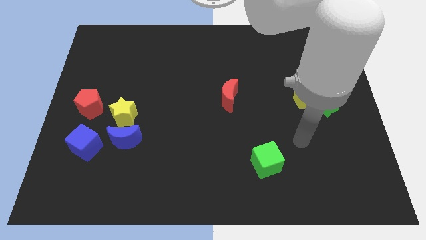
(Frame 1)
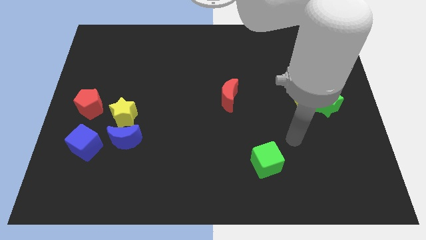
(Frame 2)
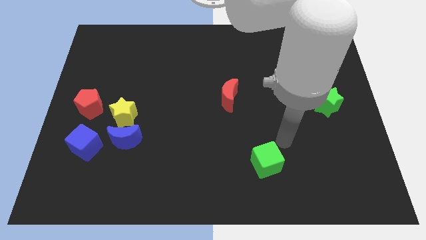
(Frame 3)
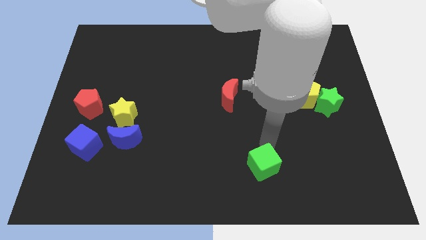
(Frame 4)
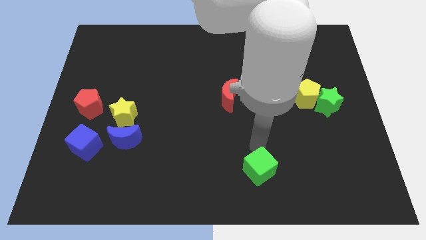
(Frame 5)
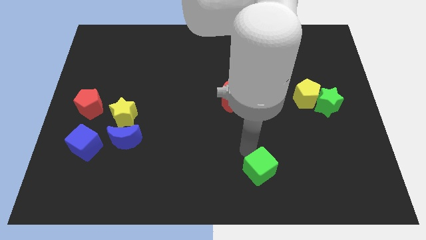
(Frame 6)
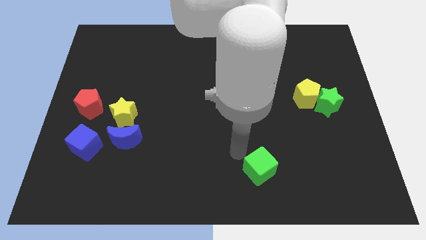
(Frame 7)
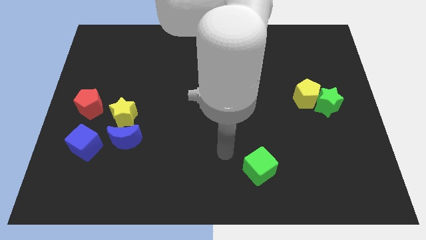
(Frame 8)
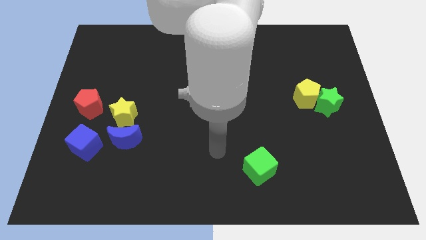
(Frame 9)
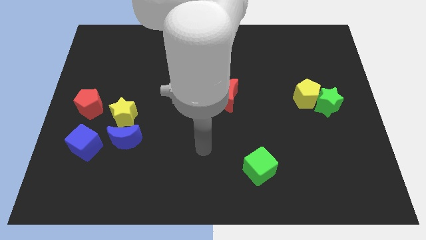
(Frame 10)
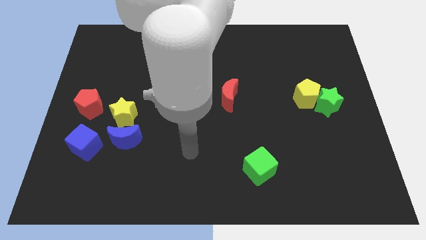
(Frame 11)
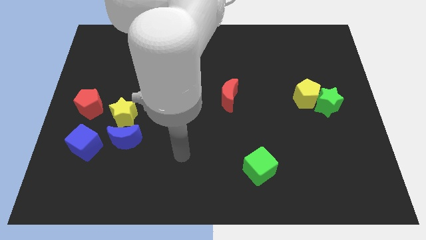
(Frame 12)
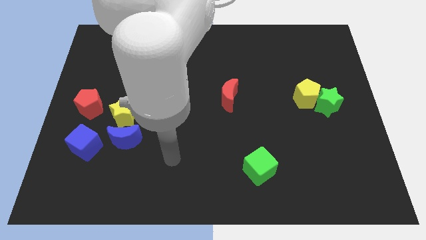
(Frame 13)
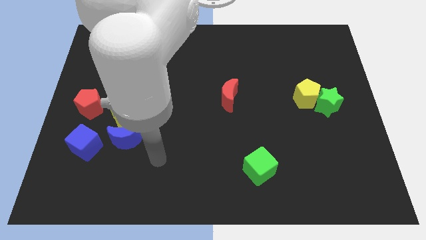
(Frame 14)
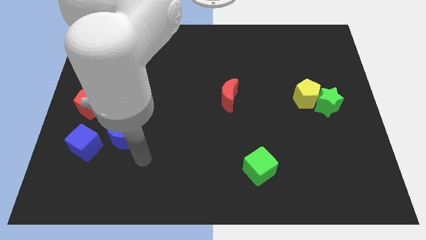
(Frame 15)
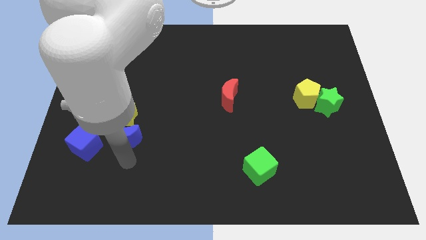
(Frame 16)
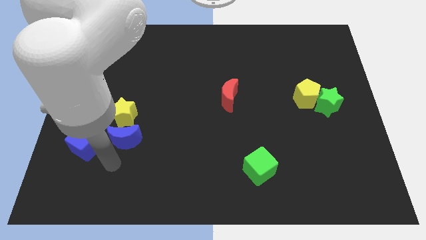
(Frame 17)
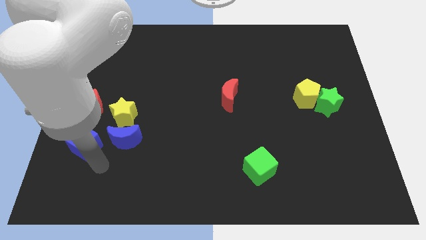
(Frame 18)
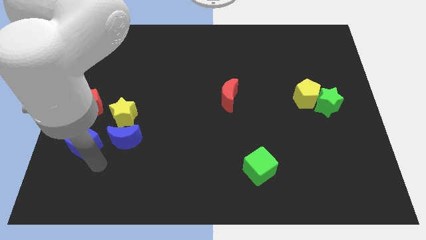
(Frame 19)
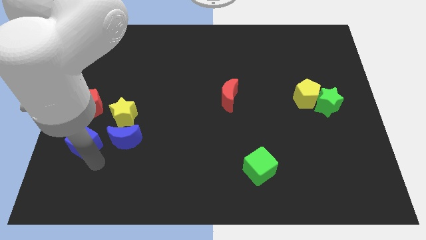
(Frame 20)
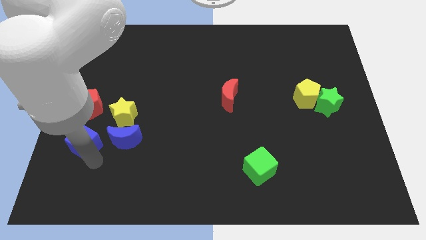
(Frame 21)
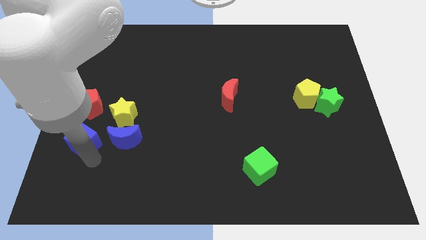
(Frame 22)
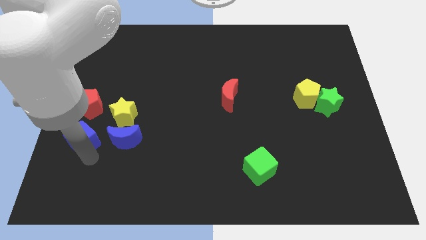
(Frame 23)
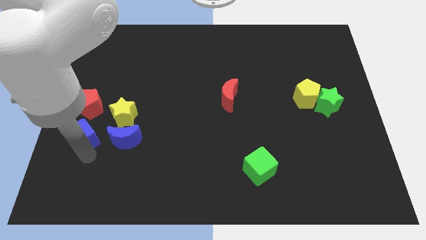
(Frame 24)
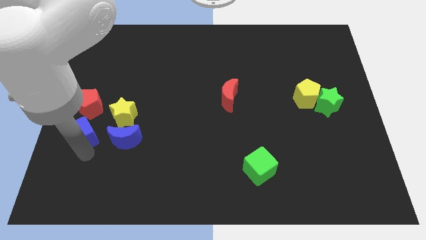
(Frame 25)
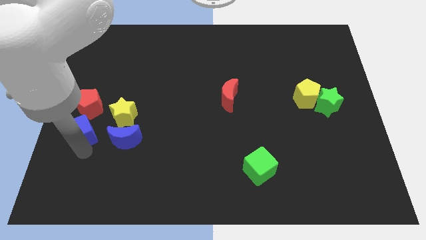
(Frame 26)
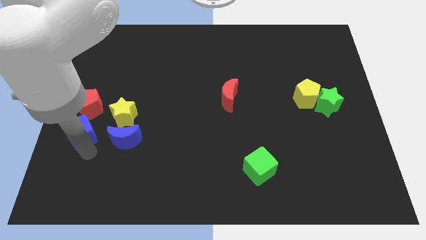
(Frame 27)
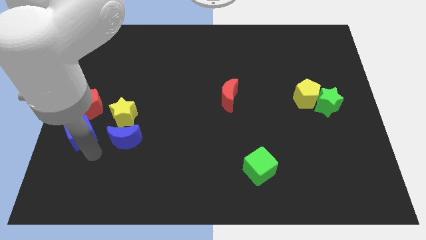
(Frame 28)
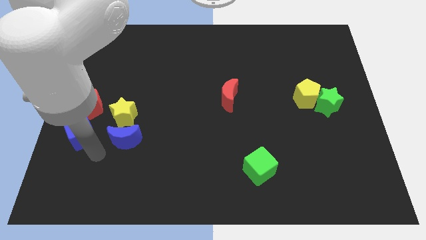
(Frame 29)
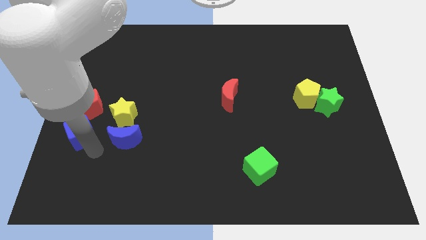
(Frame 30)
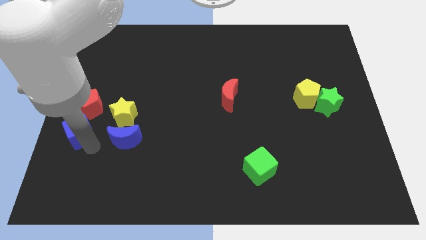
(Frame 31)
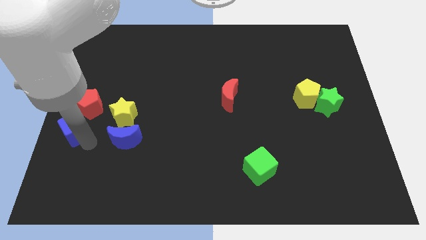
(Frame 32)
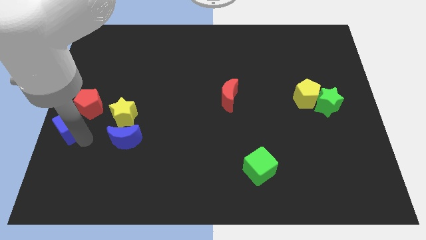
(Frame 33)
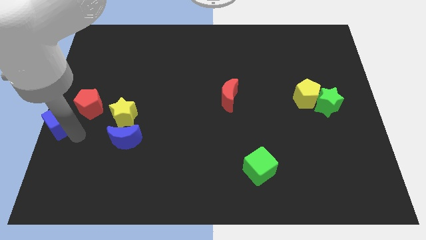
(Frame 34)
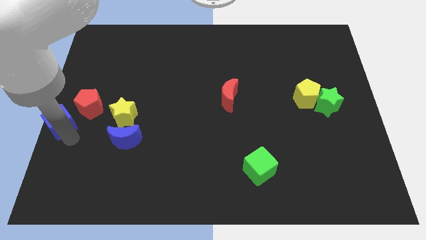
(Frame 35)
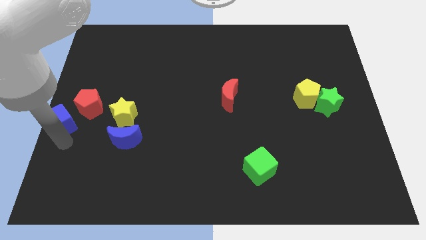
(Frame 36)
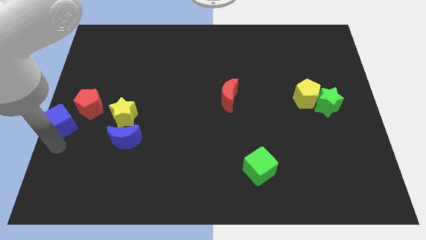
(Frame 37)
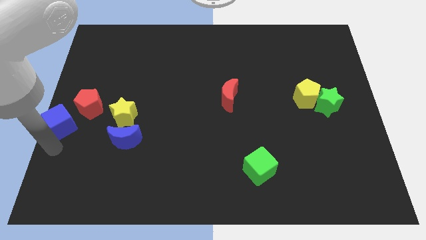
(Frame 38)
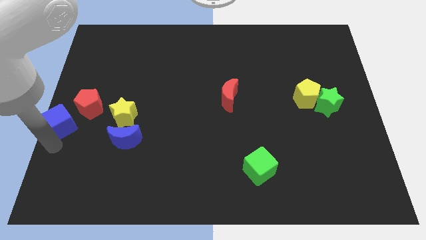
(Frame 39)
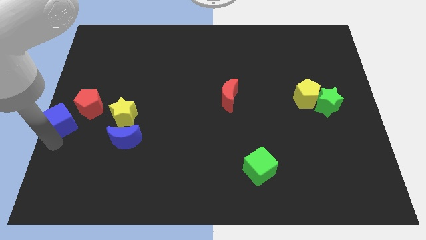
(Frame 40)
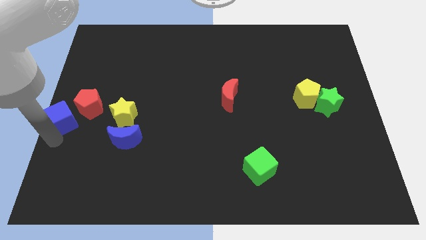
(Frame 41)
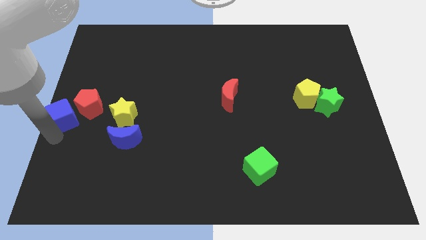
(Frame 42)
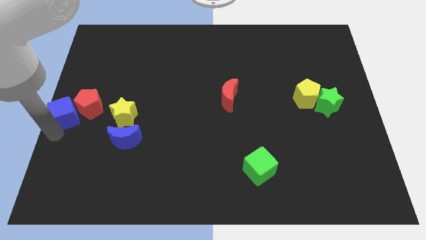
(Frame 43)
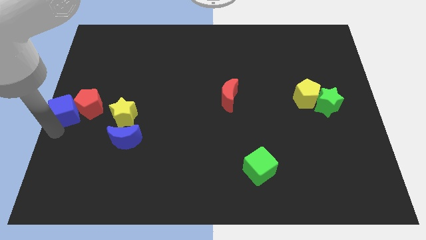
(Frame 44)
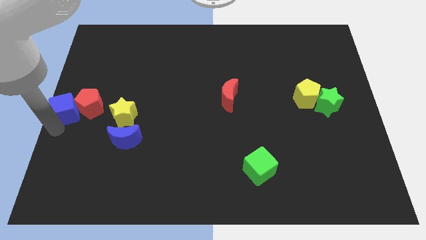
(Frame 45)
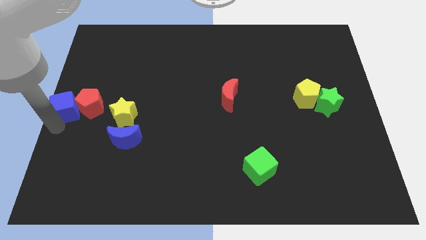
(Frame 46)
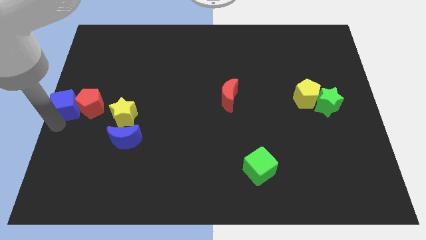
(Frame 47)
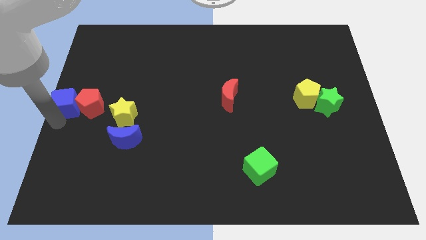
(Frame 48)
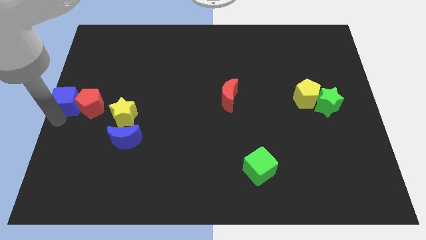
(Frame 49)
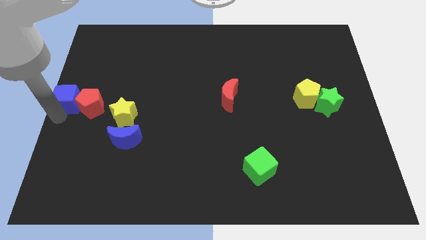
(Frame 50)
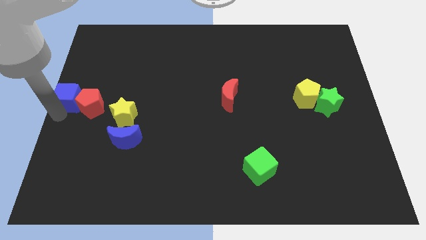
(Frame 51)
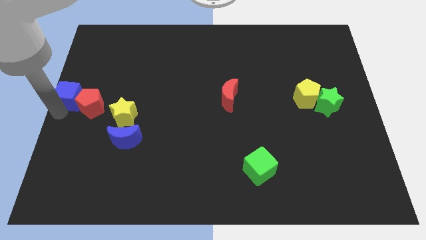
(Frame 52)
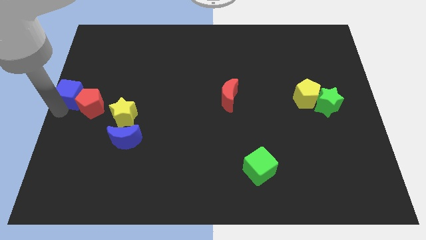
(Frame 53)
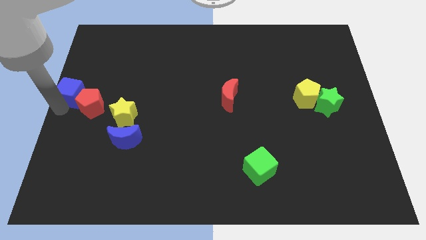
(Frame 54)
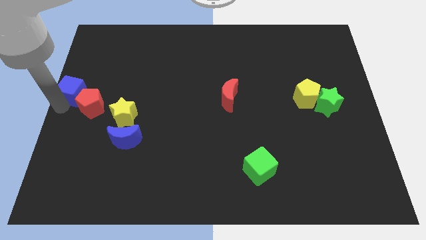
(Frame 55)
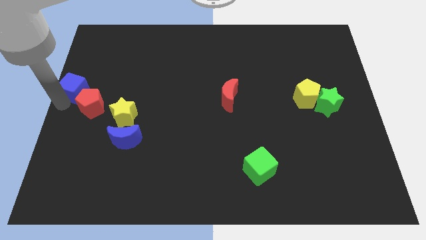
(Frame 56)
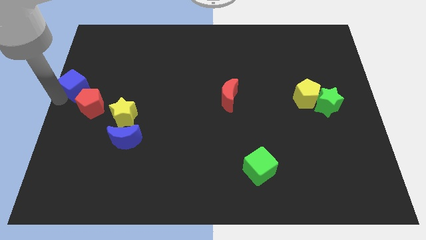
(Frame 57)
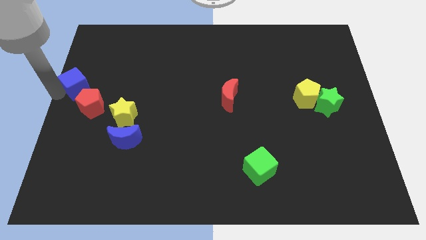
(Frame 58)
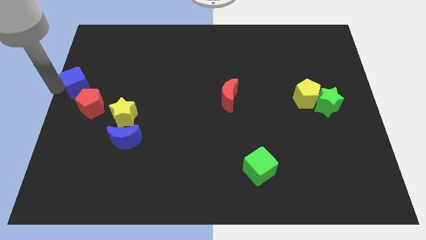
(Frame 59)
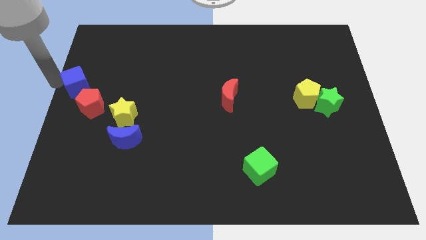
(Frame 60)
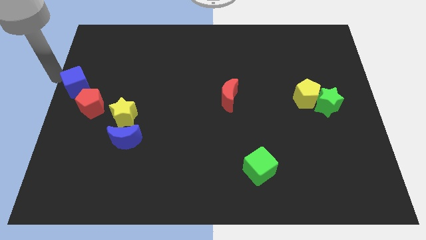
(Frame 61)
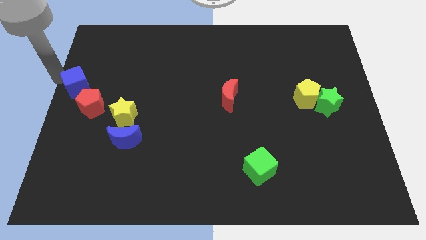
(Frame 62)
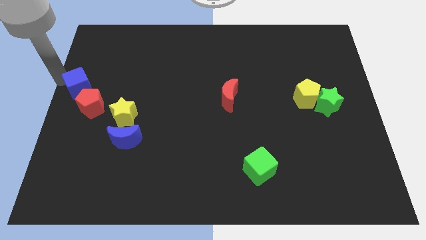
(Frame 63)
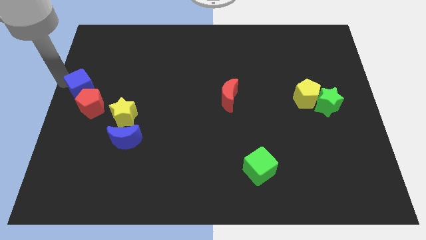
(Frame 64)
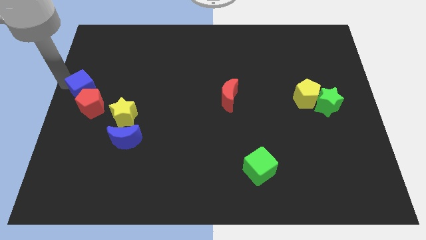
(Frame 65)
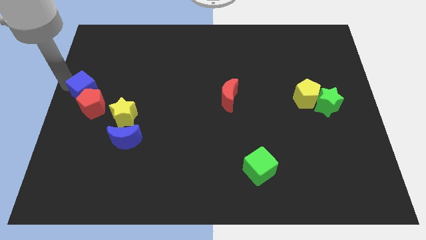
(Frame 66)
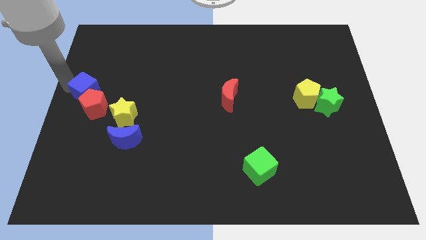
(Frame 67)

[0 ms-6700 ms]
put the blue cube diagonally up and to the left of the yellow star

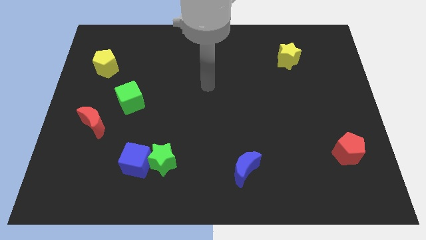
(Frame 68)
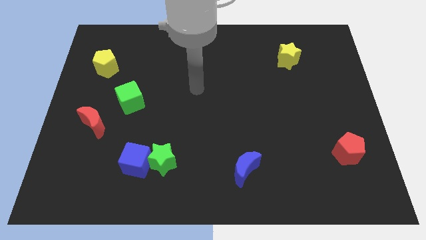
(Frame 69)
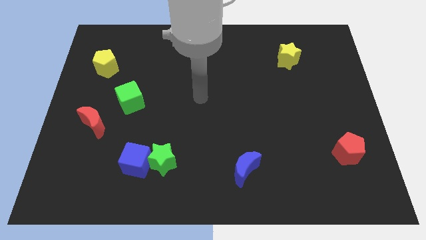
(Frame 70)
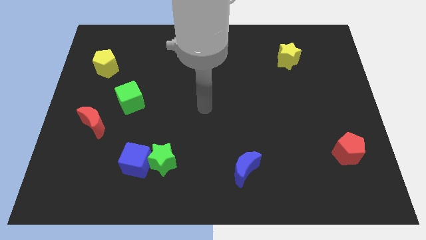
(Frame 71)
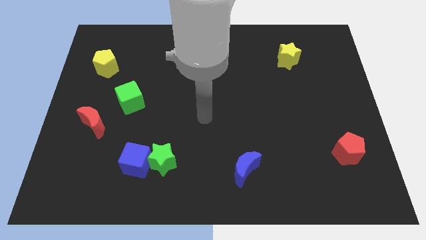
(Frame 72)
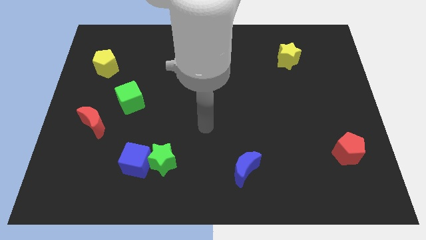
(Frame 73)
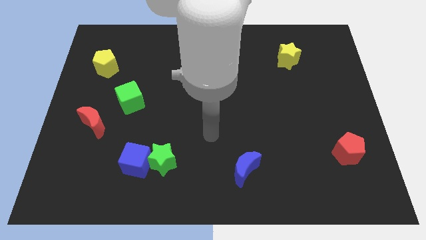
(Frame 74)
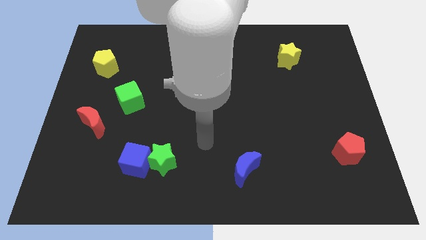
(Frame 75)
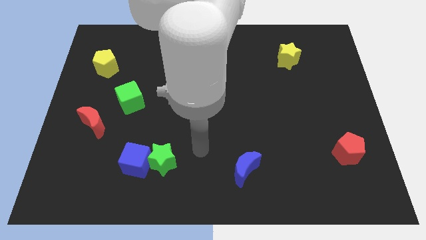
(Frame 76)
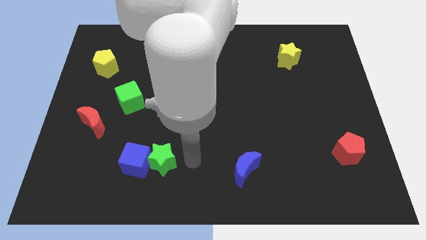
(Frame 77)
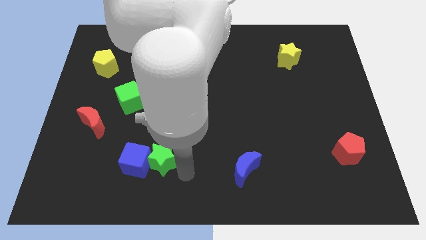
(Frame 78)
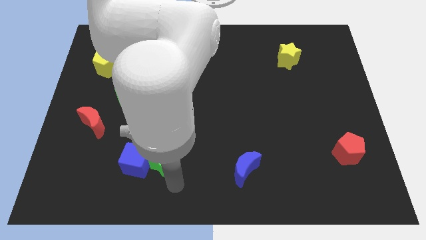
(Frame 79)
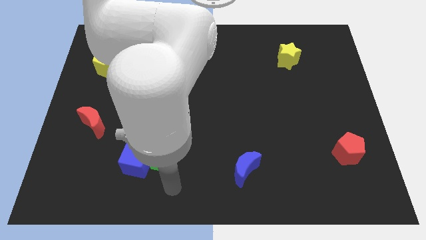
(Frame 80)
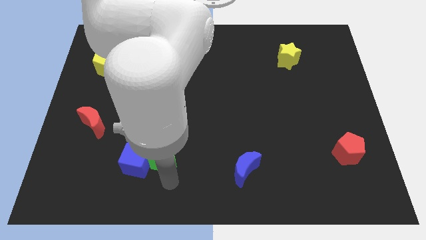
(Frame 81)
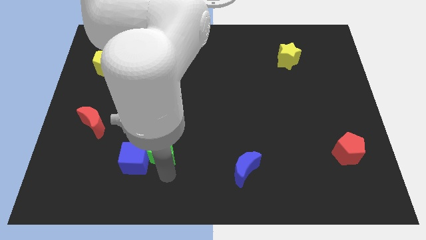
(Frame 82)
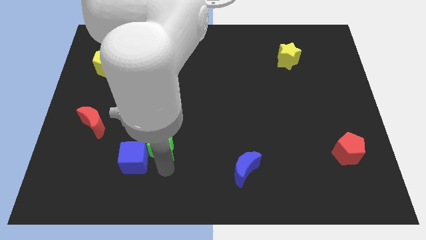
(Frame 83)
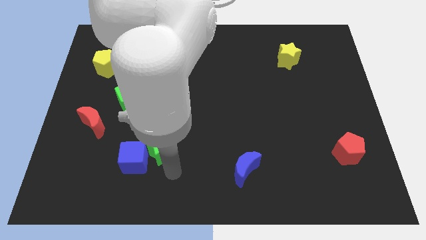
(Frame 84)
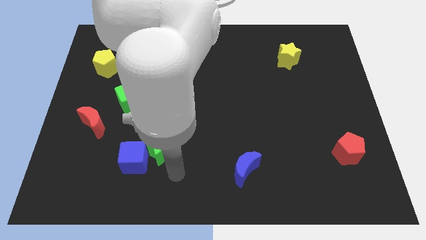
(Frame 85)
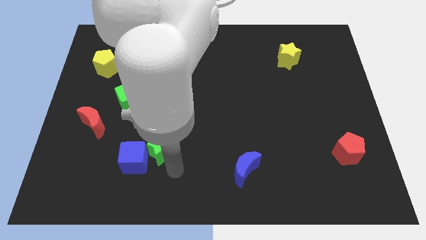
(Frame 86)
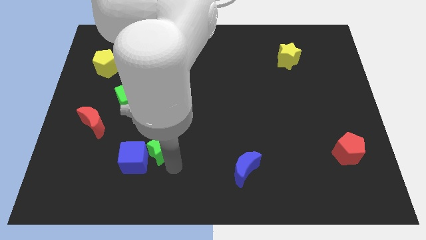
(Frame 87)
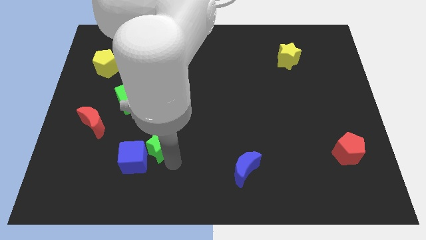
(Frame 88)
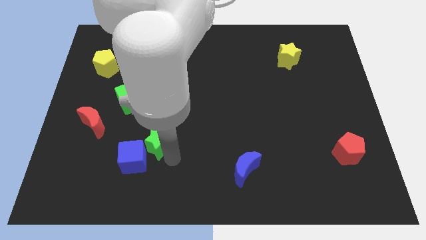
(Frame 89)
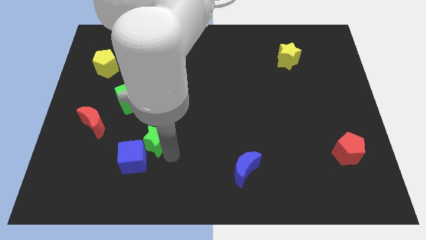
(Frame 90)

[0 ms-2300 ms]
move the green star to the top of the blue cube
